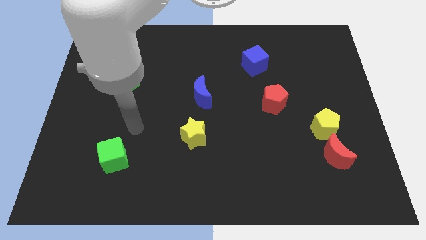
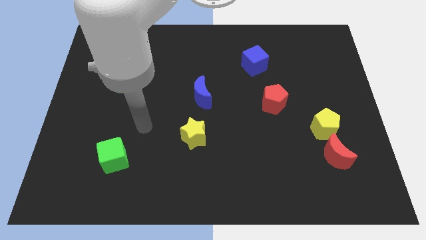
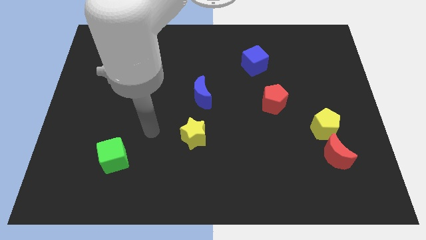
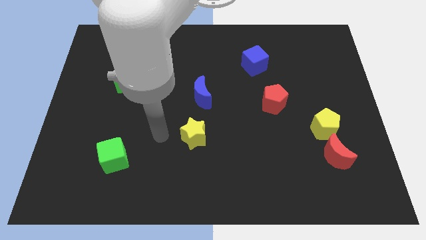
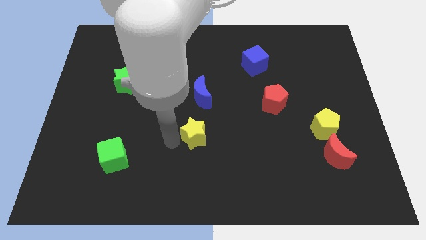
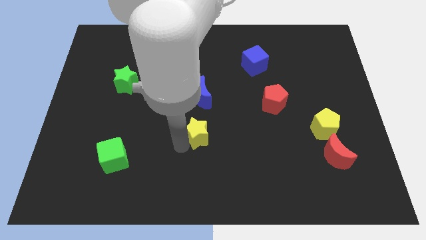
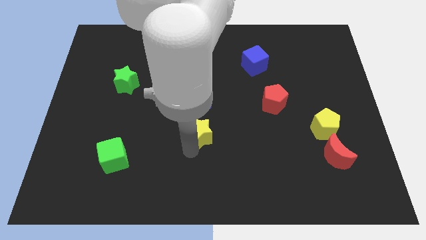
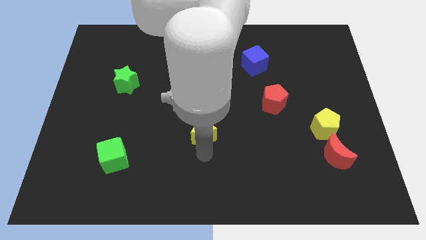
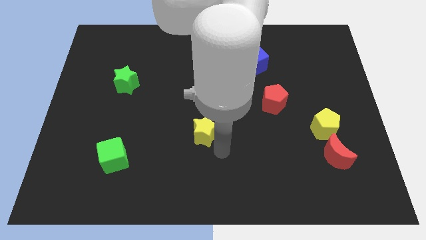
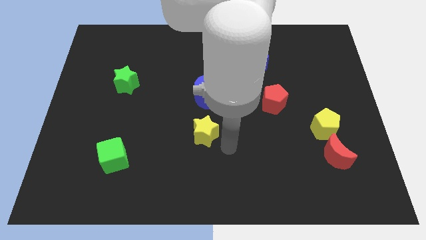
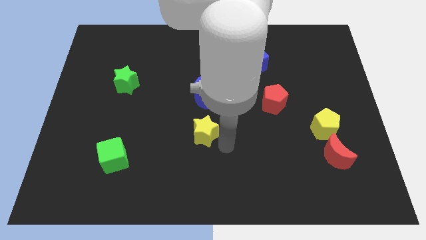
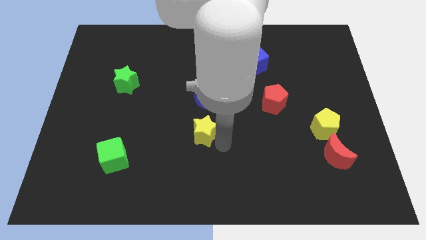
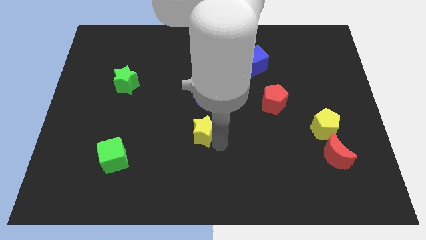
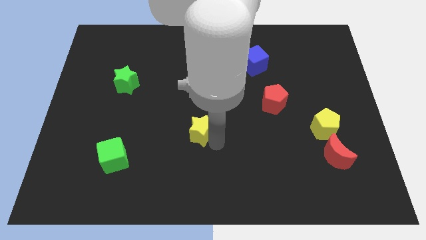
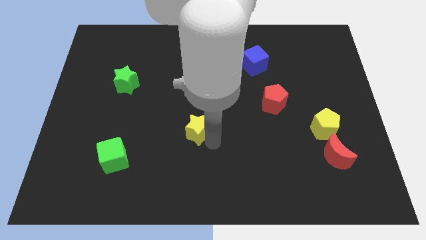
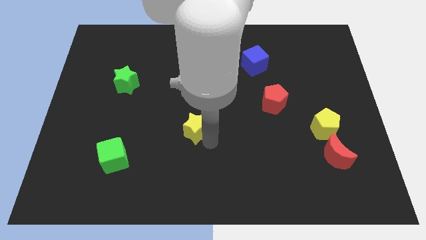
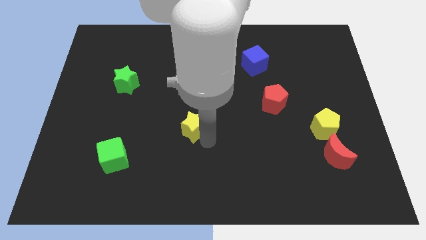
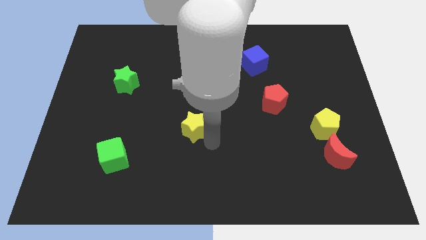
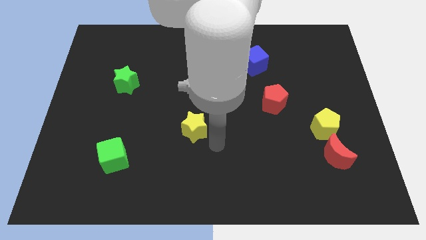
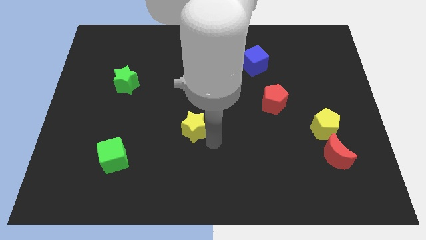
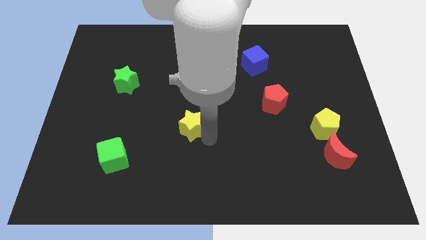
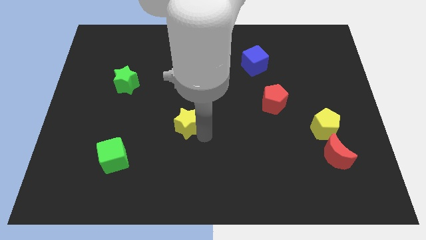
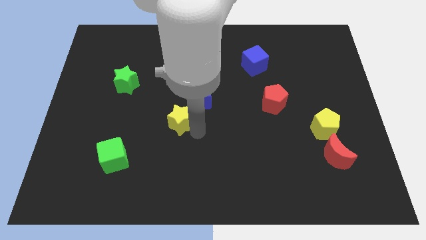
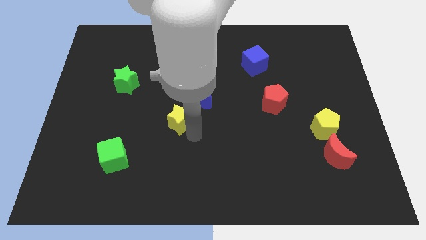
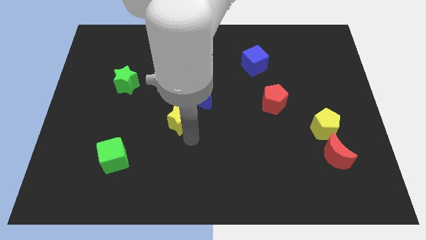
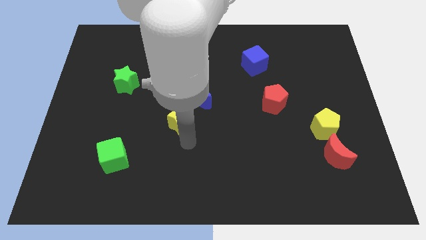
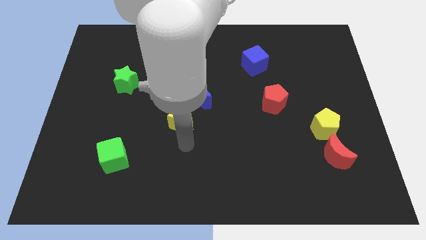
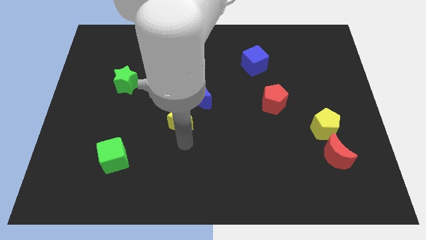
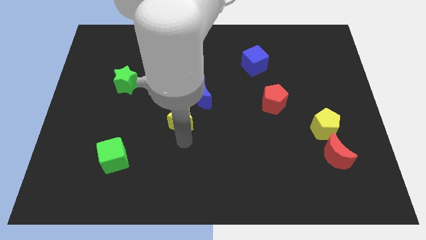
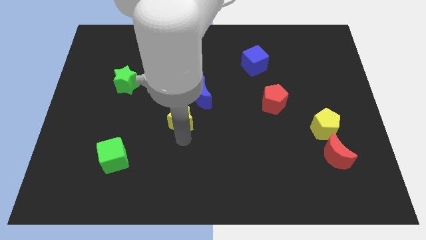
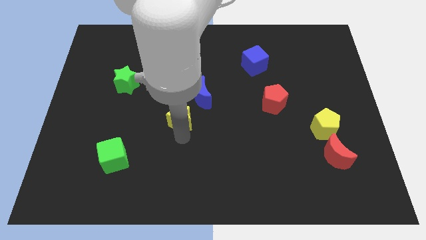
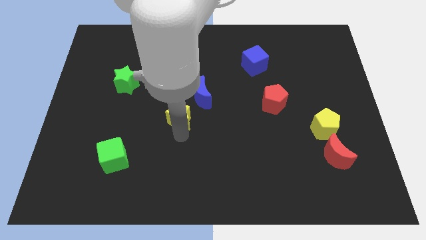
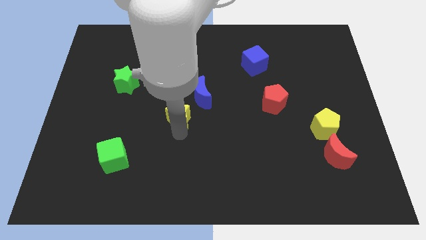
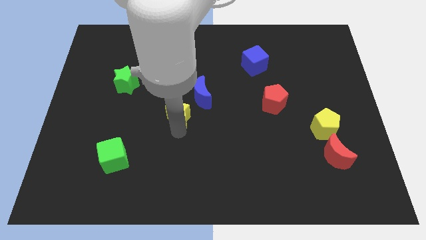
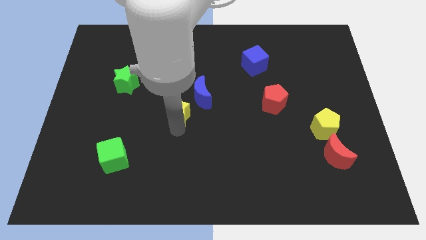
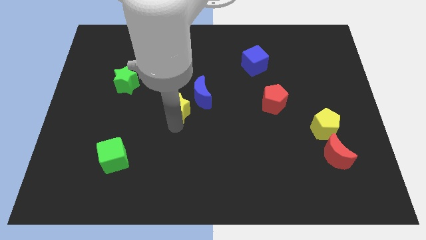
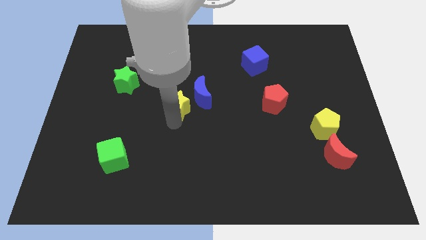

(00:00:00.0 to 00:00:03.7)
move the yellow star slightly upwards

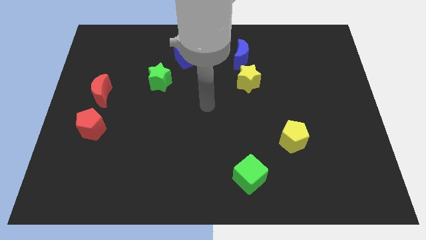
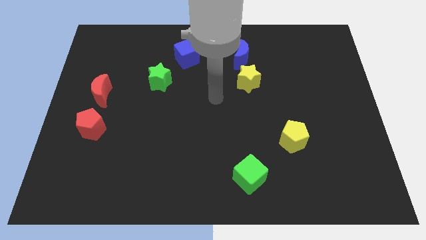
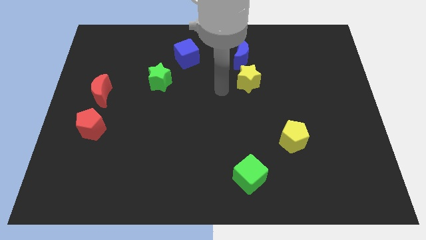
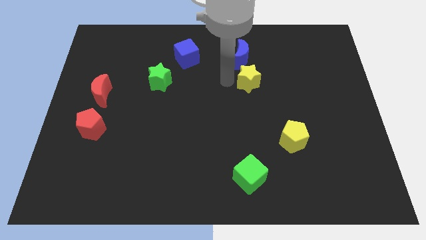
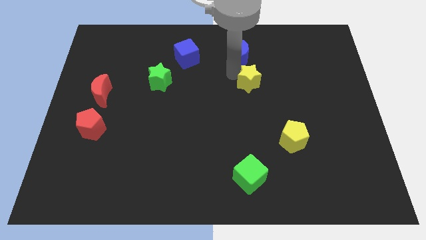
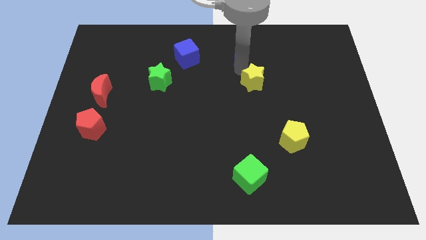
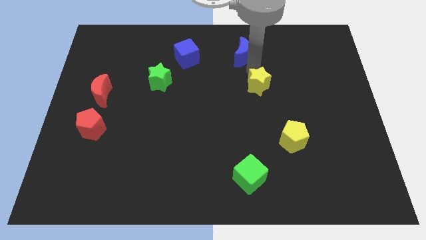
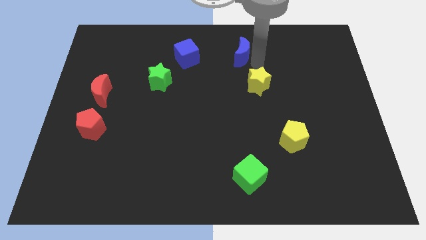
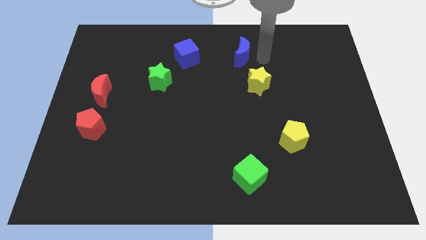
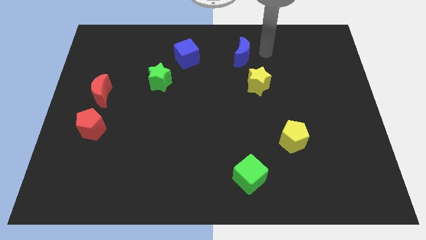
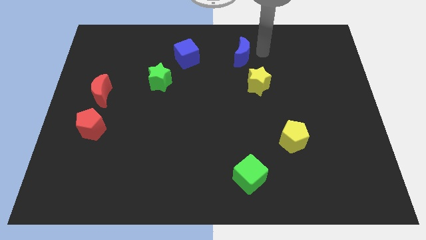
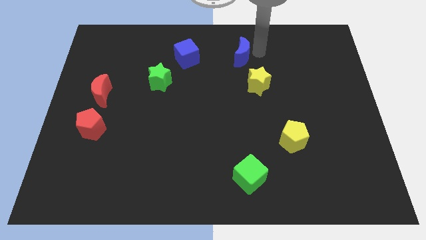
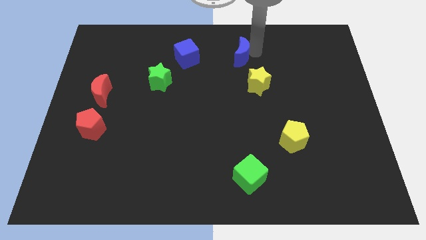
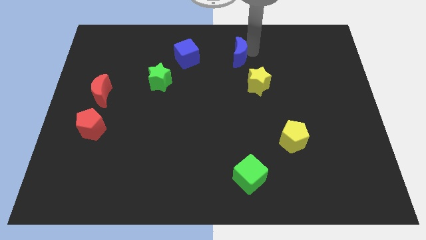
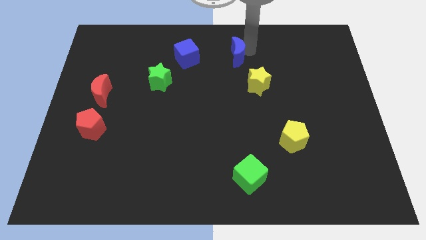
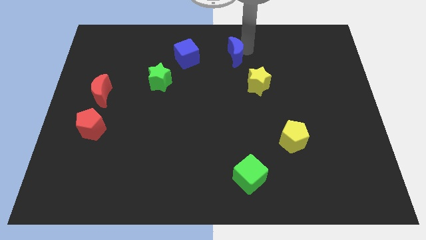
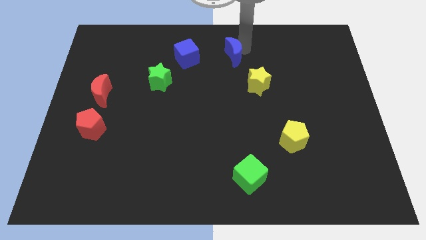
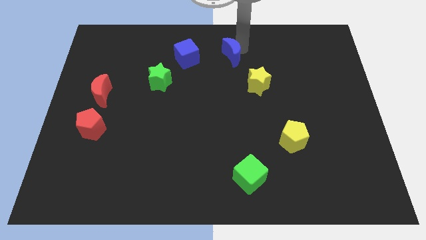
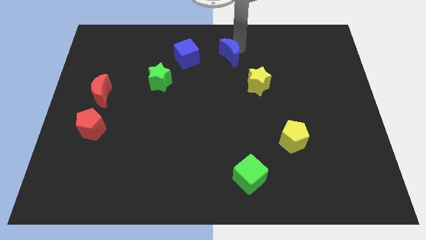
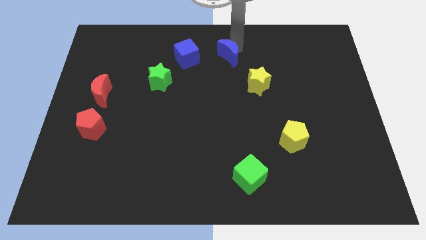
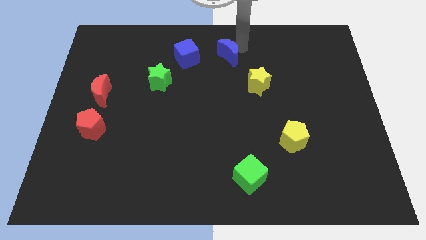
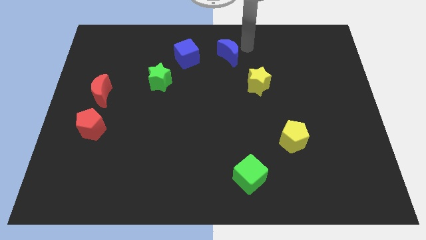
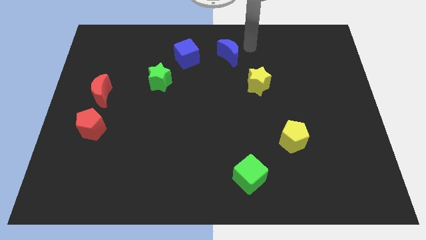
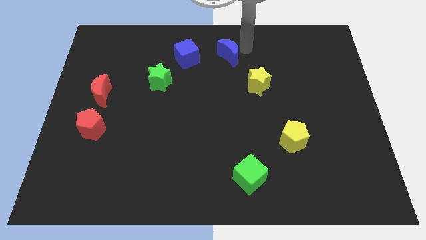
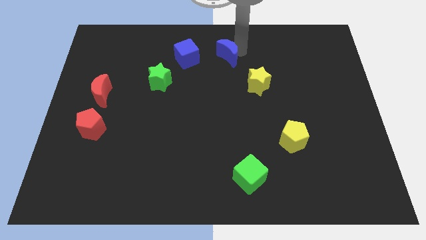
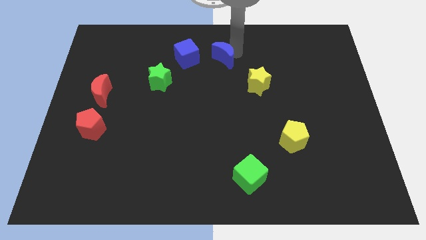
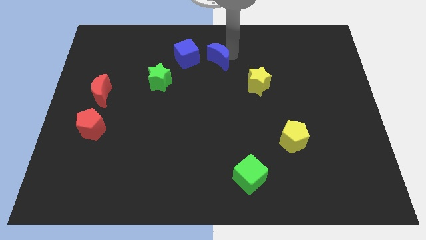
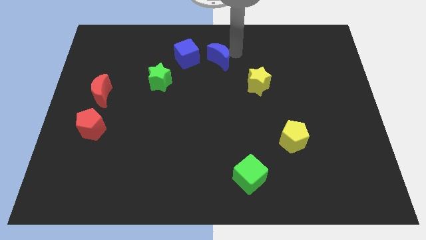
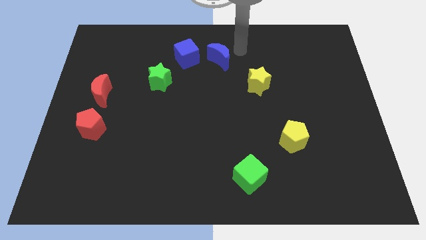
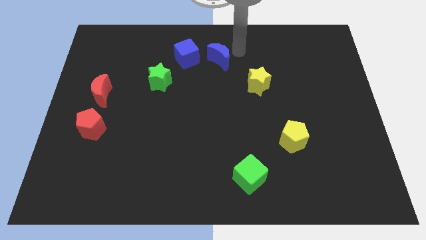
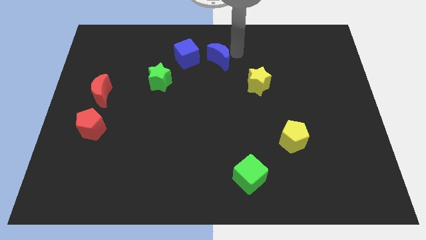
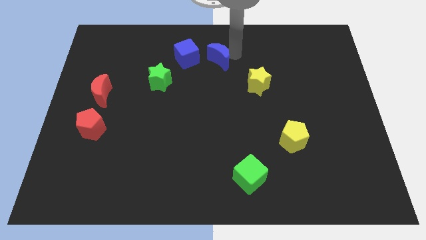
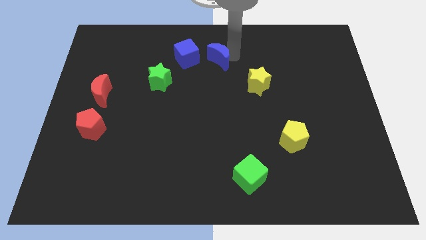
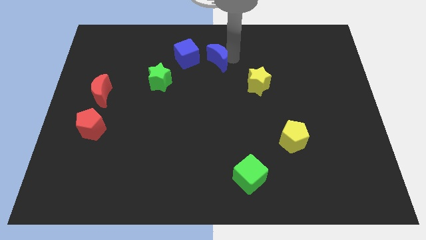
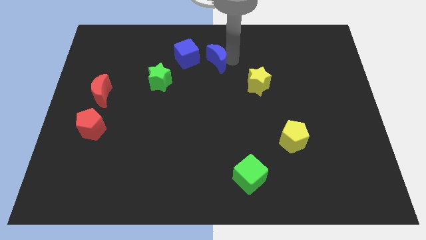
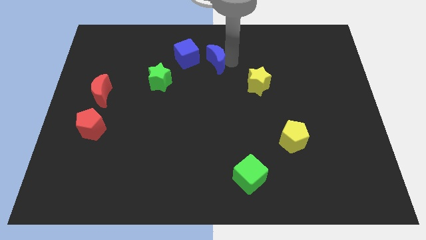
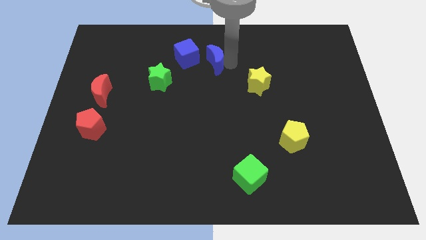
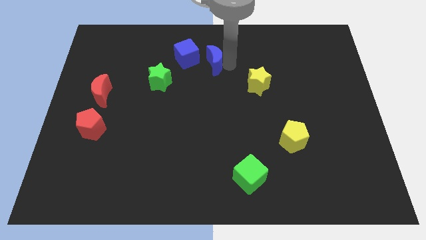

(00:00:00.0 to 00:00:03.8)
push the blue moon slightly left

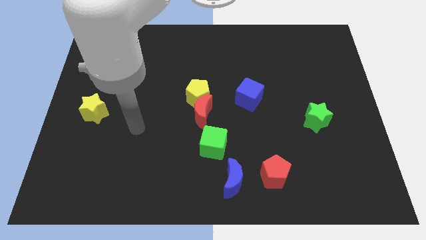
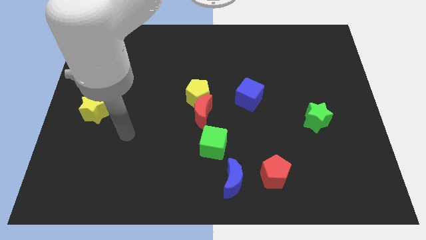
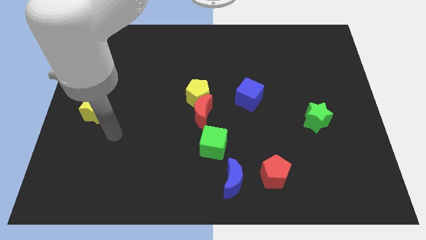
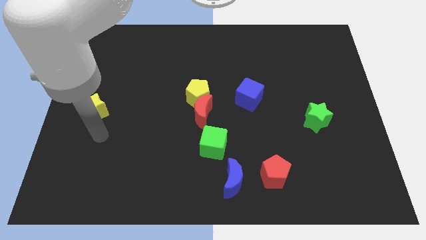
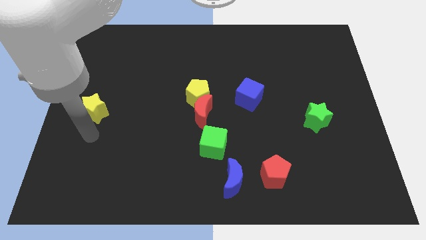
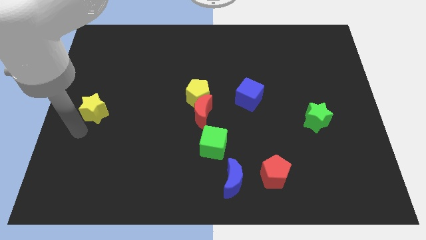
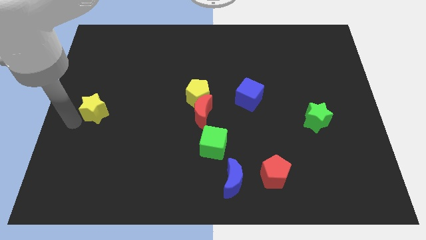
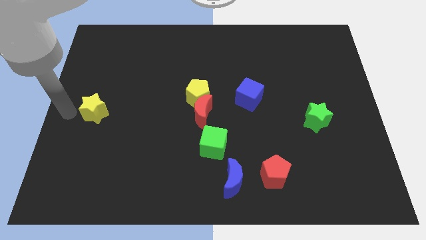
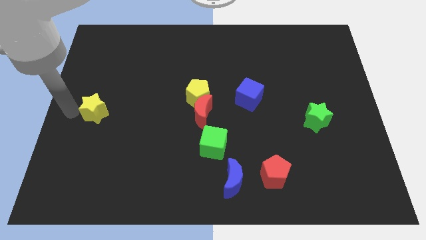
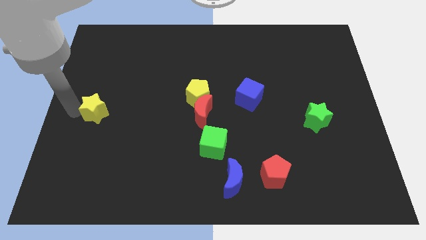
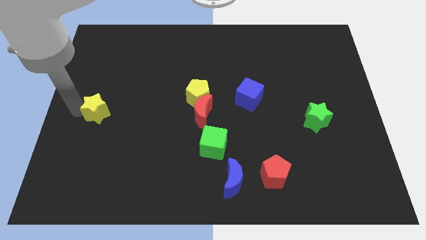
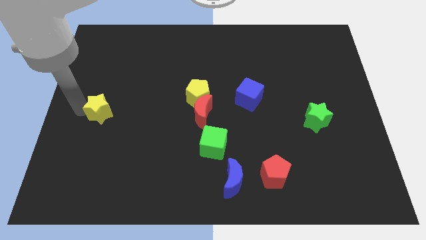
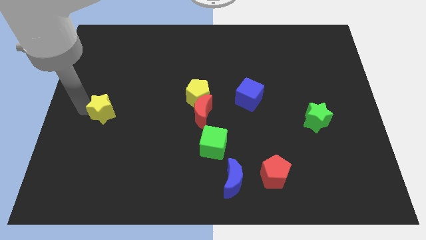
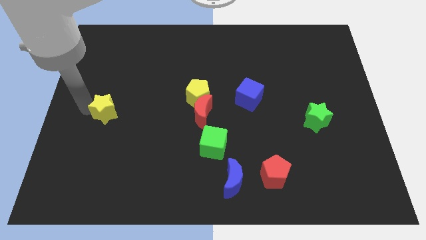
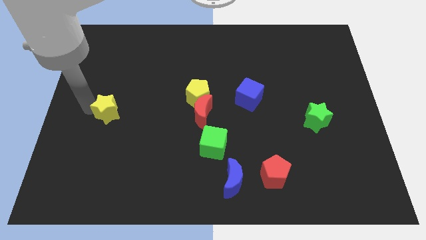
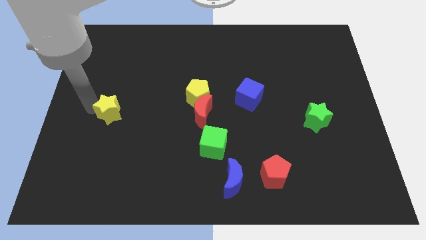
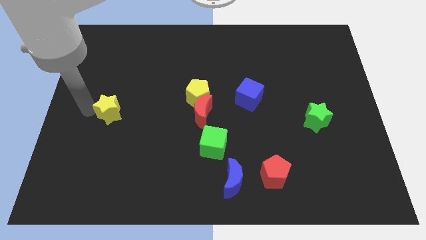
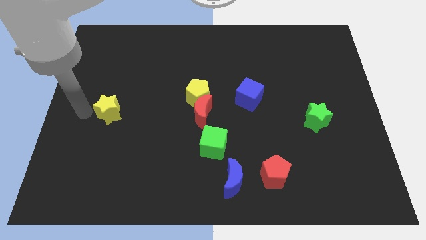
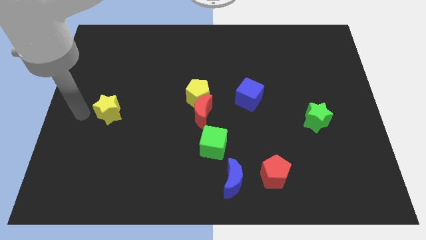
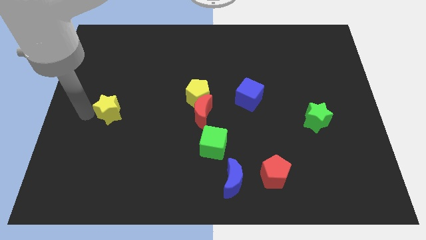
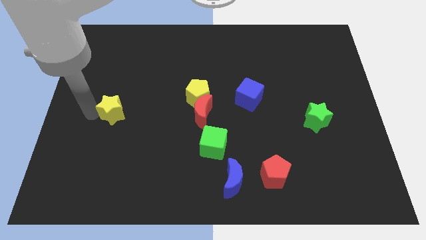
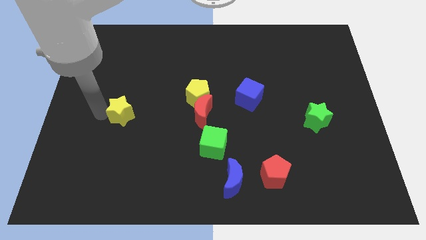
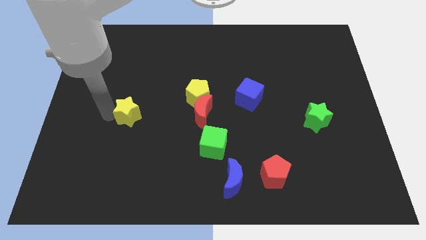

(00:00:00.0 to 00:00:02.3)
slide the yellow star right a little bit
